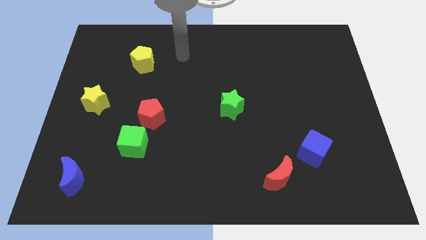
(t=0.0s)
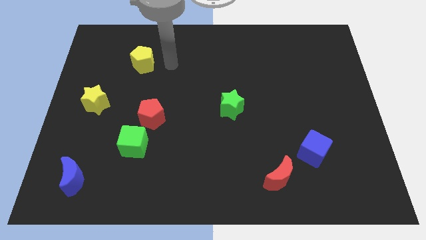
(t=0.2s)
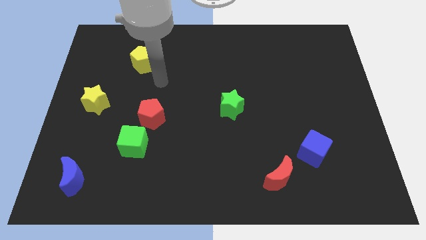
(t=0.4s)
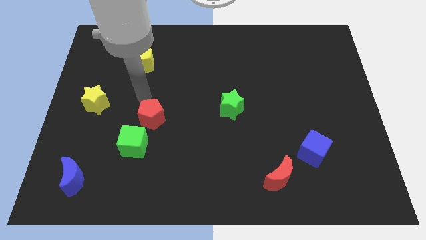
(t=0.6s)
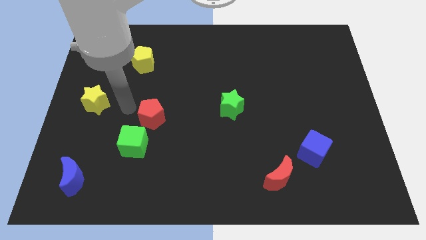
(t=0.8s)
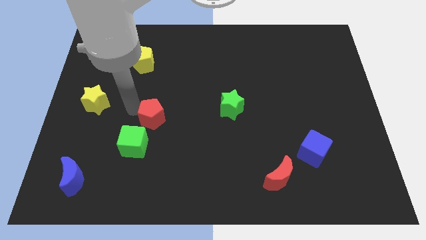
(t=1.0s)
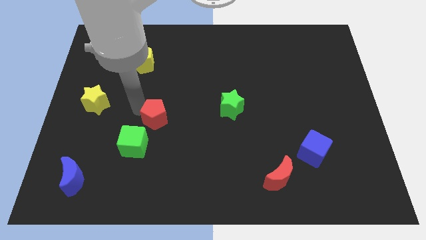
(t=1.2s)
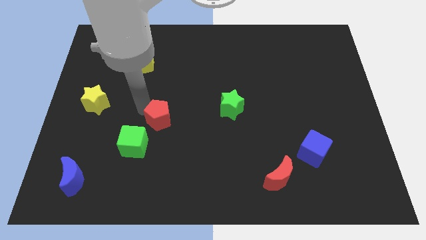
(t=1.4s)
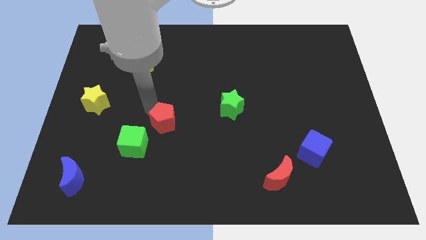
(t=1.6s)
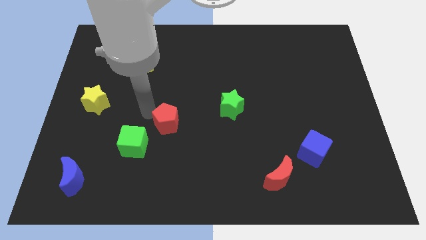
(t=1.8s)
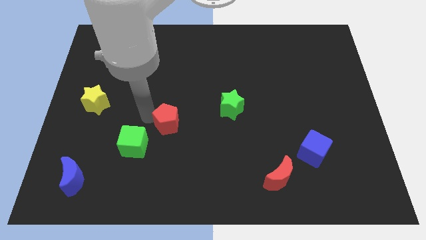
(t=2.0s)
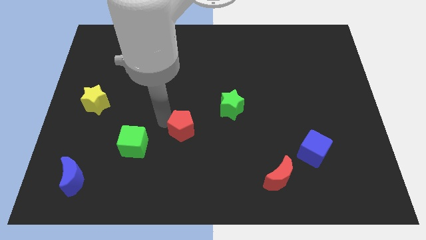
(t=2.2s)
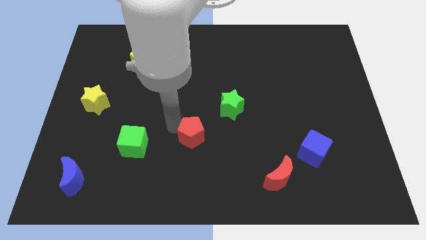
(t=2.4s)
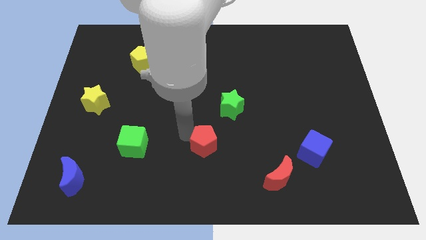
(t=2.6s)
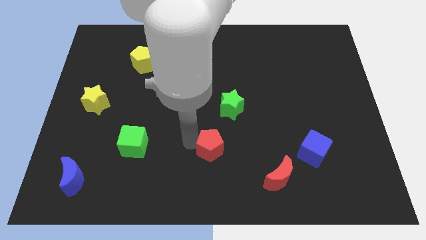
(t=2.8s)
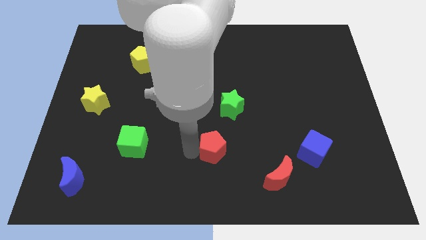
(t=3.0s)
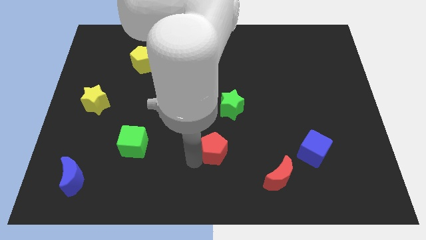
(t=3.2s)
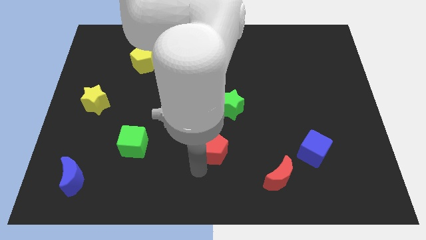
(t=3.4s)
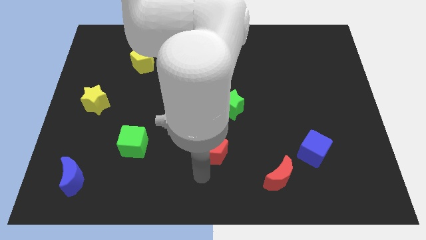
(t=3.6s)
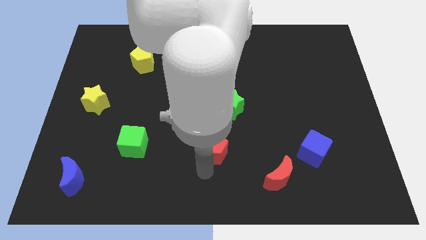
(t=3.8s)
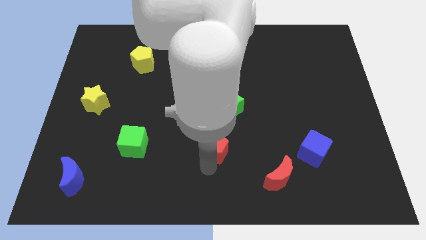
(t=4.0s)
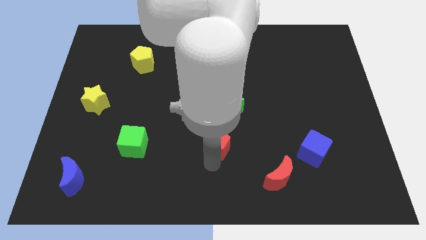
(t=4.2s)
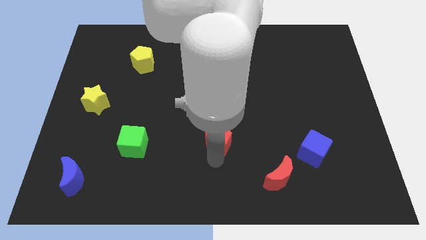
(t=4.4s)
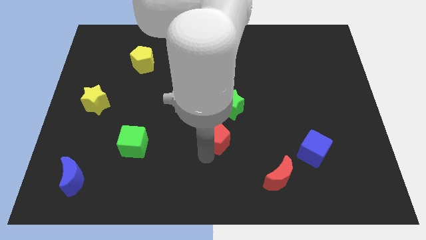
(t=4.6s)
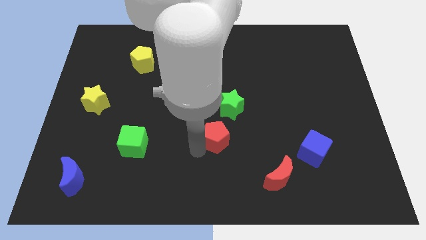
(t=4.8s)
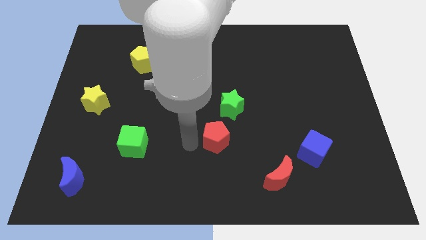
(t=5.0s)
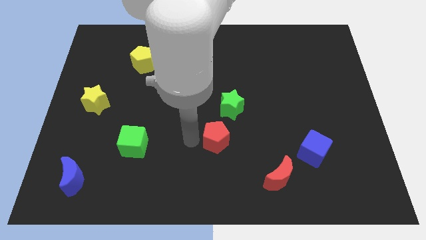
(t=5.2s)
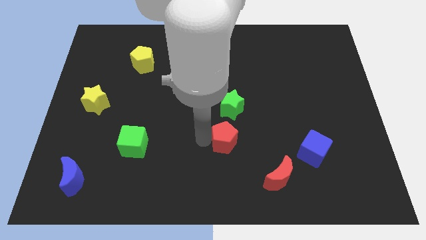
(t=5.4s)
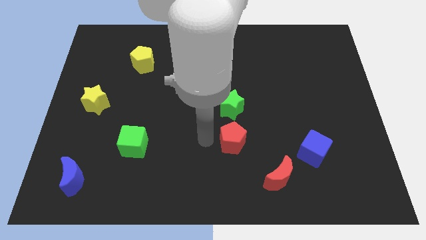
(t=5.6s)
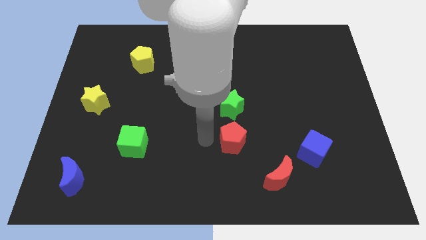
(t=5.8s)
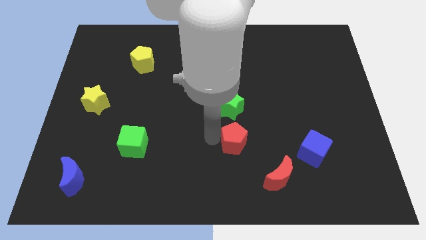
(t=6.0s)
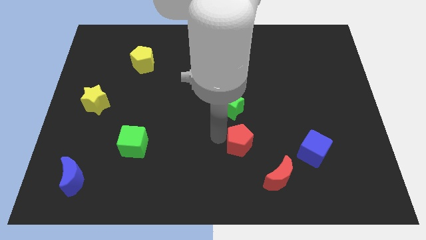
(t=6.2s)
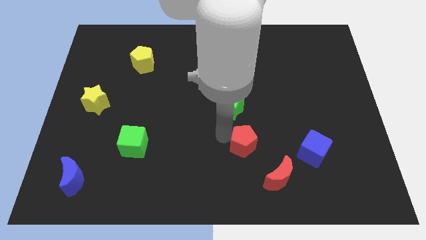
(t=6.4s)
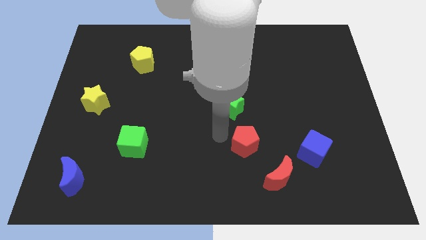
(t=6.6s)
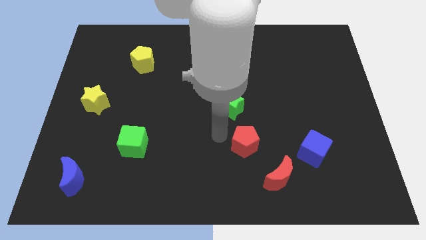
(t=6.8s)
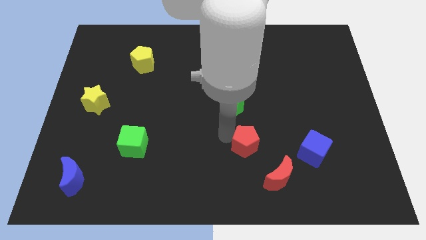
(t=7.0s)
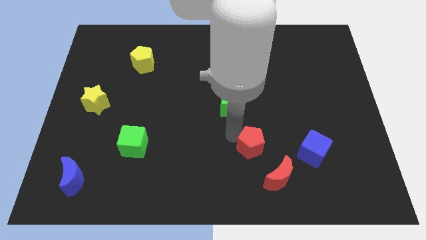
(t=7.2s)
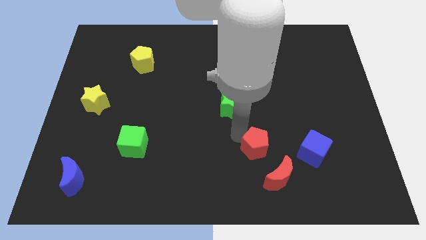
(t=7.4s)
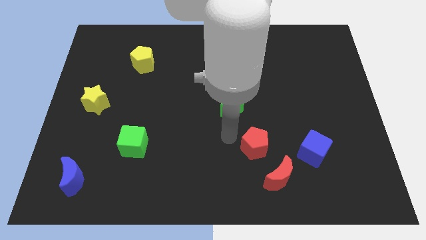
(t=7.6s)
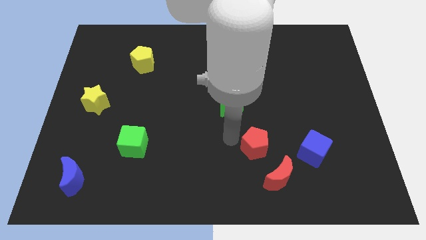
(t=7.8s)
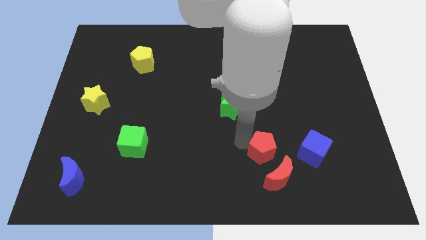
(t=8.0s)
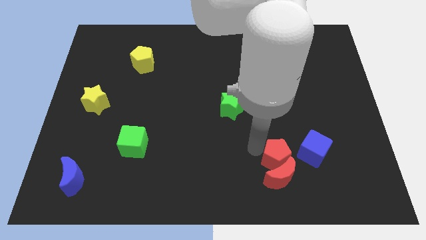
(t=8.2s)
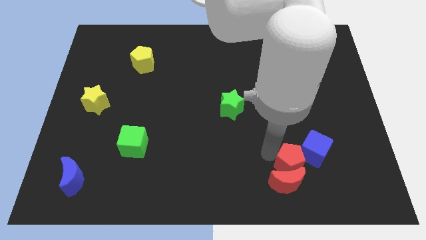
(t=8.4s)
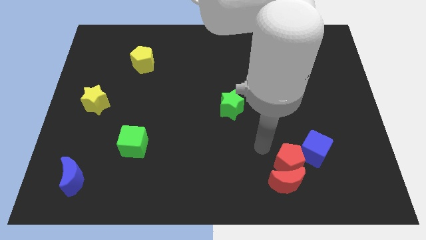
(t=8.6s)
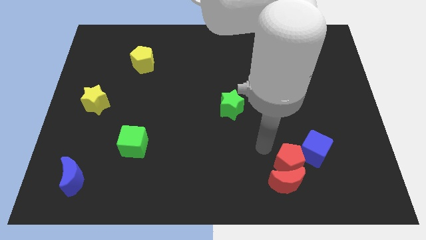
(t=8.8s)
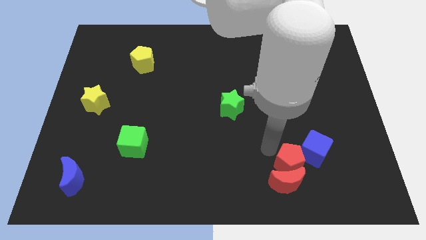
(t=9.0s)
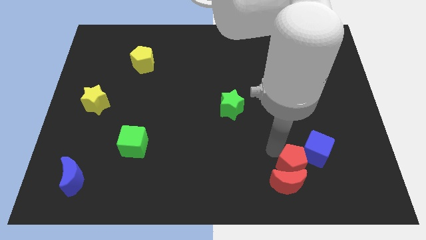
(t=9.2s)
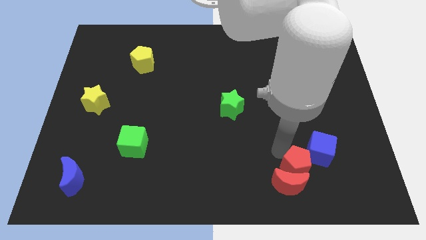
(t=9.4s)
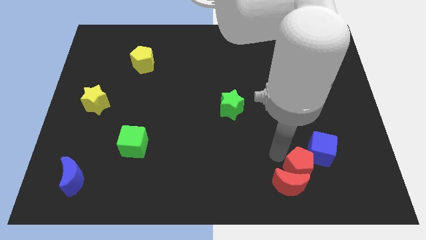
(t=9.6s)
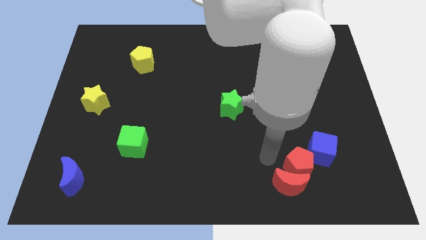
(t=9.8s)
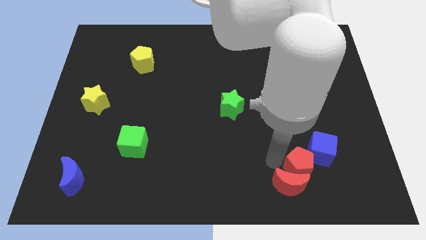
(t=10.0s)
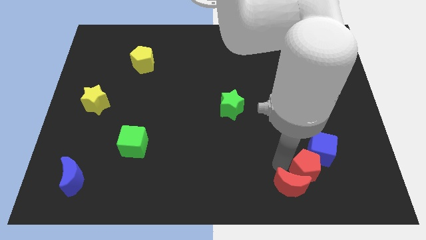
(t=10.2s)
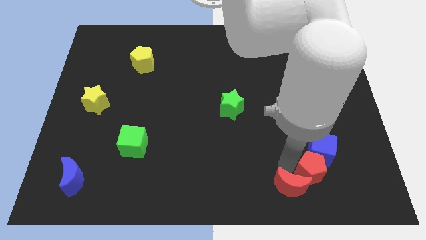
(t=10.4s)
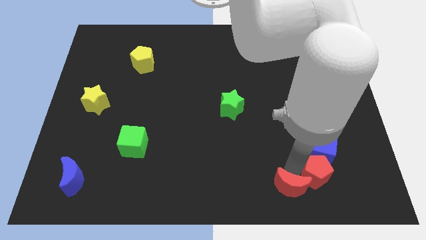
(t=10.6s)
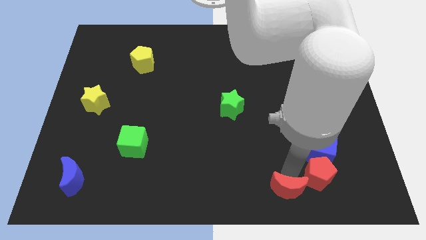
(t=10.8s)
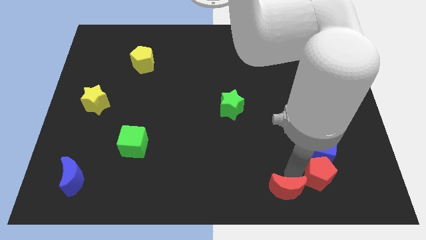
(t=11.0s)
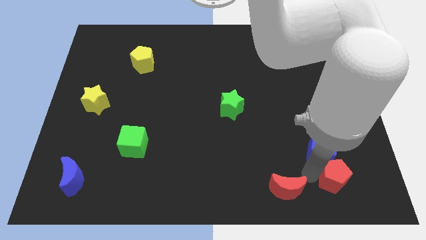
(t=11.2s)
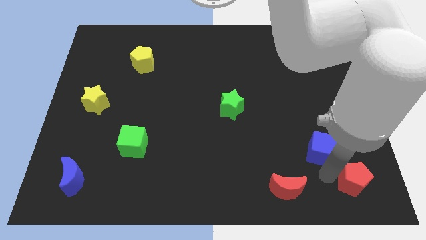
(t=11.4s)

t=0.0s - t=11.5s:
move the red pentagon to the bottom right of the board
